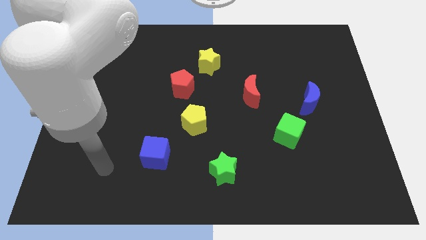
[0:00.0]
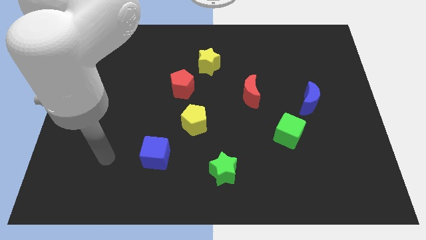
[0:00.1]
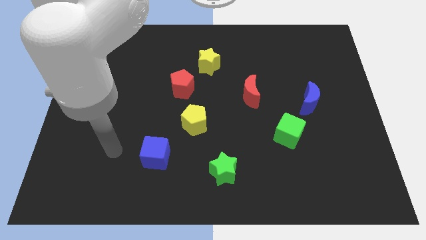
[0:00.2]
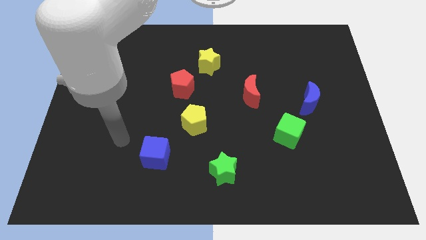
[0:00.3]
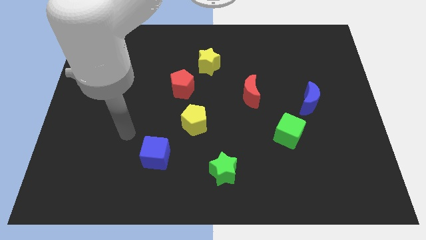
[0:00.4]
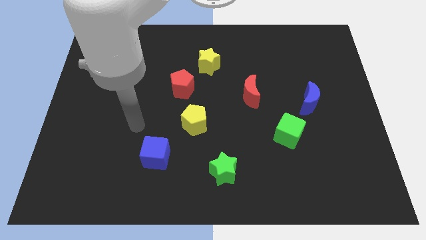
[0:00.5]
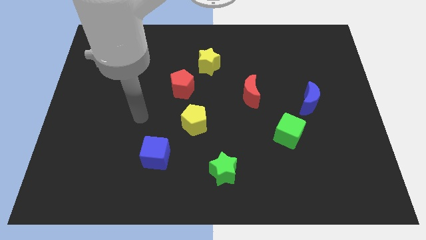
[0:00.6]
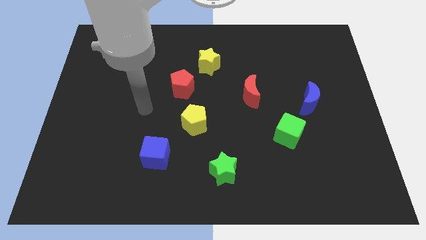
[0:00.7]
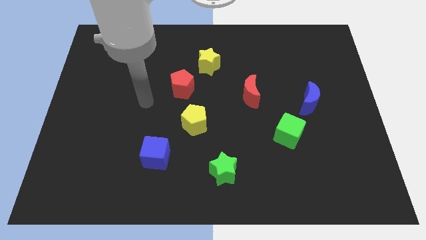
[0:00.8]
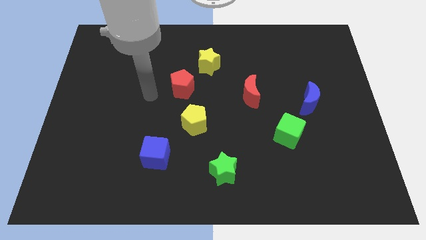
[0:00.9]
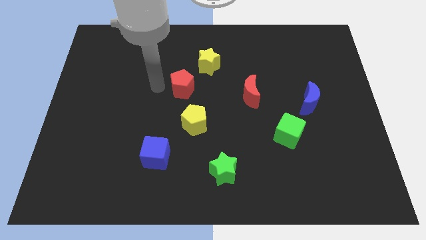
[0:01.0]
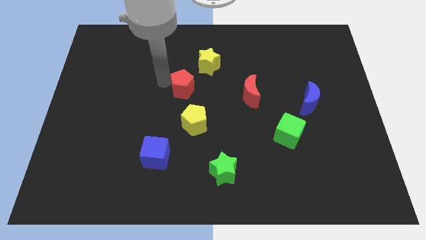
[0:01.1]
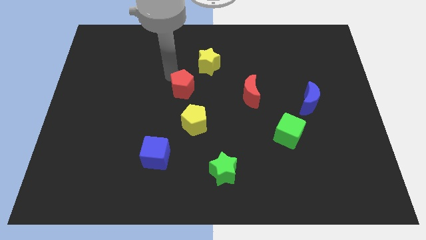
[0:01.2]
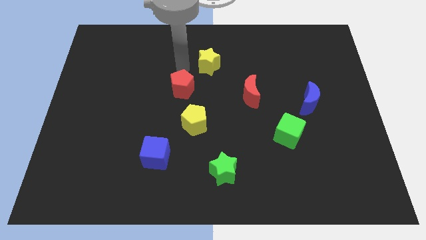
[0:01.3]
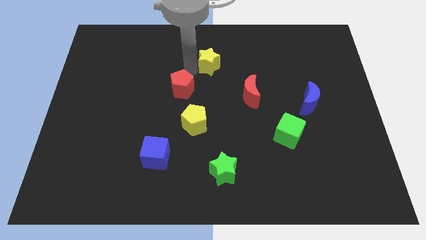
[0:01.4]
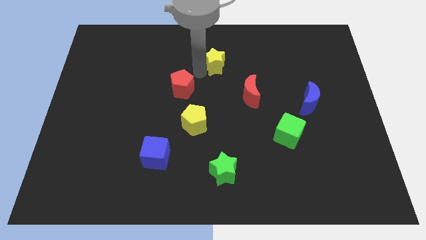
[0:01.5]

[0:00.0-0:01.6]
move the red pentagon away from the yellow star

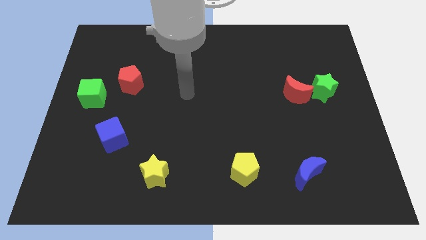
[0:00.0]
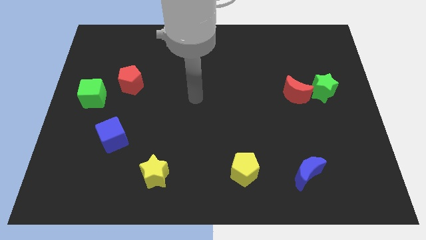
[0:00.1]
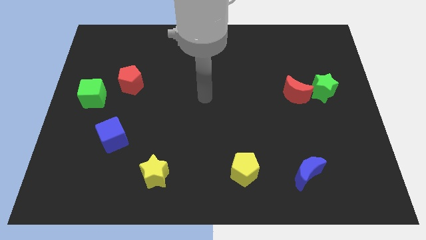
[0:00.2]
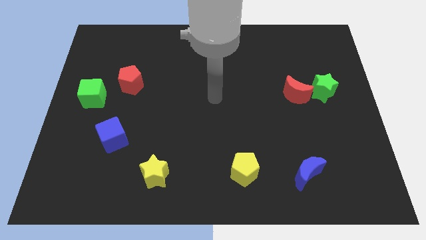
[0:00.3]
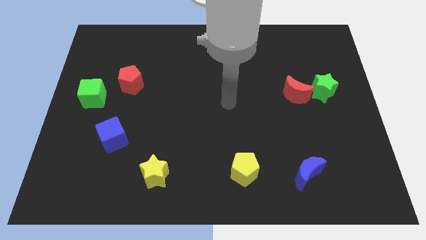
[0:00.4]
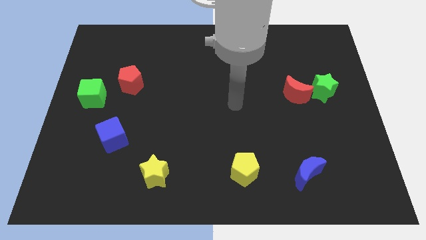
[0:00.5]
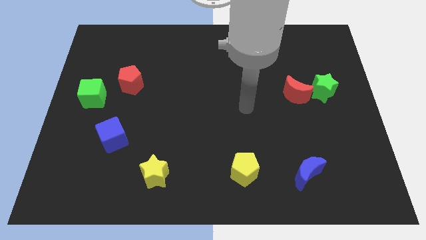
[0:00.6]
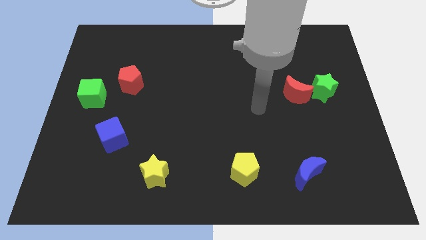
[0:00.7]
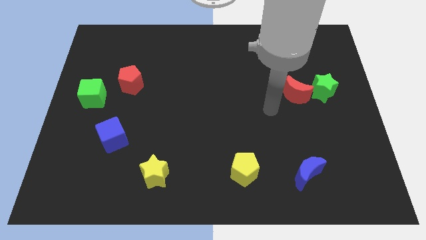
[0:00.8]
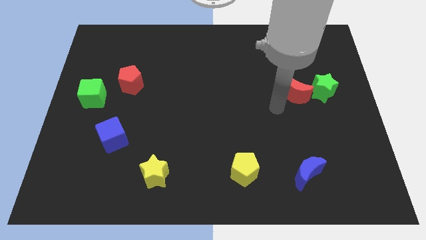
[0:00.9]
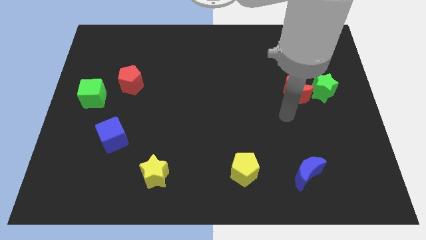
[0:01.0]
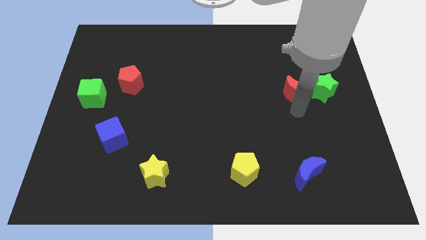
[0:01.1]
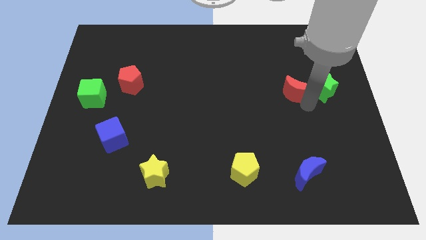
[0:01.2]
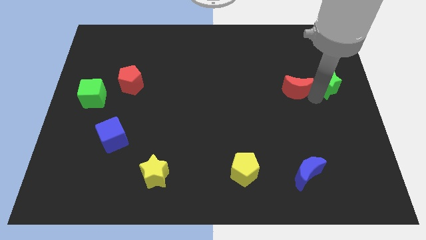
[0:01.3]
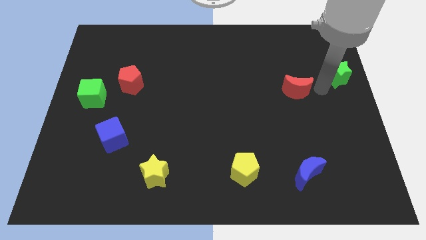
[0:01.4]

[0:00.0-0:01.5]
move the red moon away from the green star

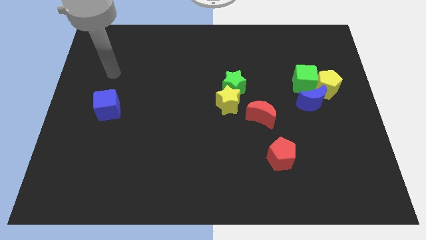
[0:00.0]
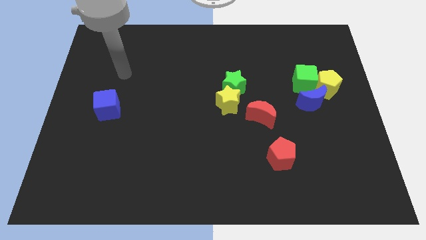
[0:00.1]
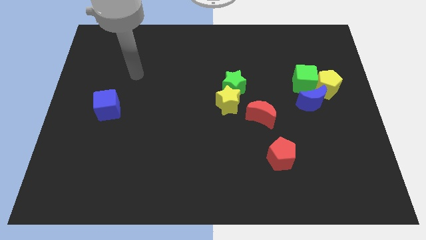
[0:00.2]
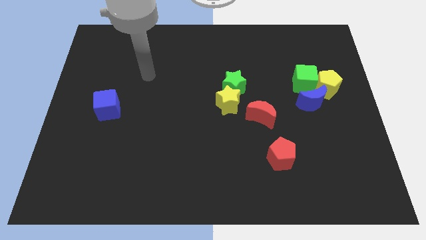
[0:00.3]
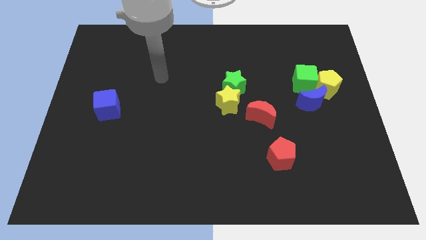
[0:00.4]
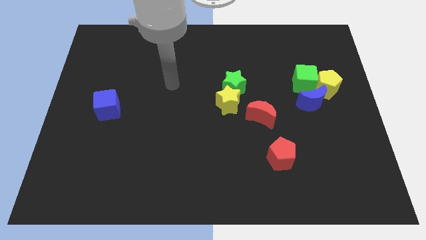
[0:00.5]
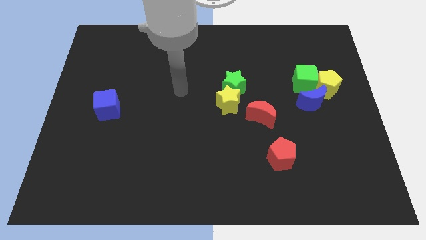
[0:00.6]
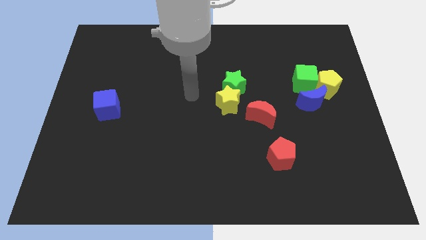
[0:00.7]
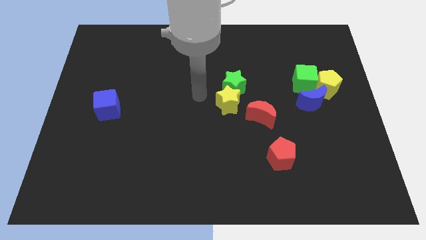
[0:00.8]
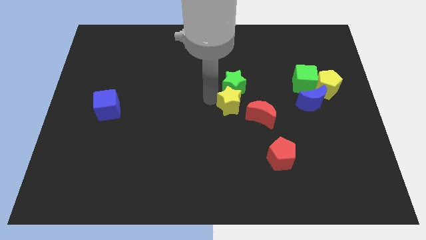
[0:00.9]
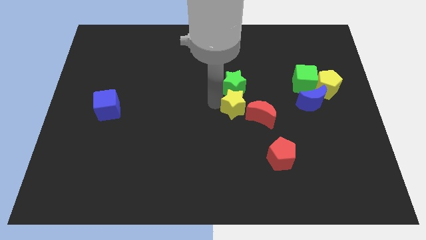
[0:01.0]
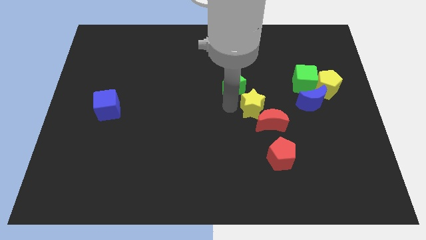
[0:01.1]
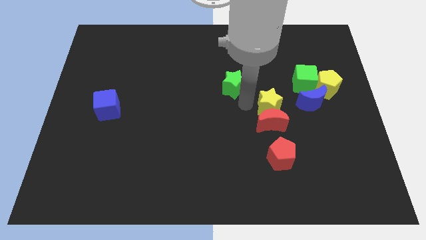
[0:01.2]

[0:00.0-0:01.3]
move the green star away from the yellow star

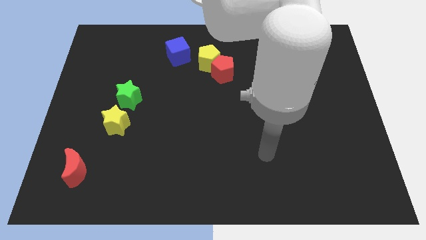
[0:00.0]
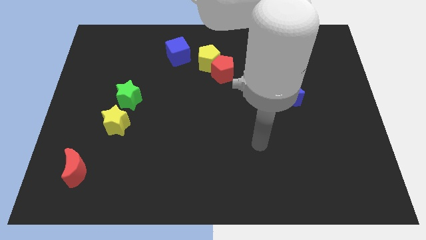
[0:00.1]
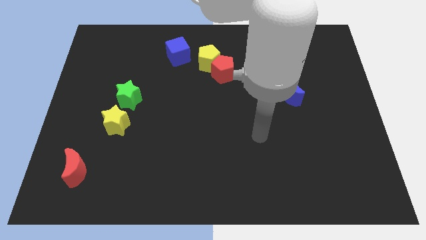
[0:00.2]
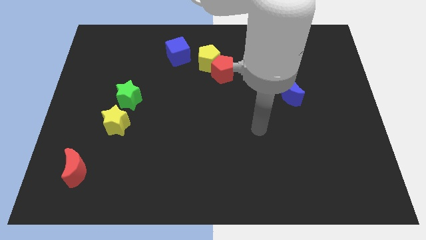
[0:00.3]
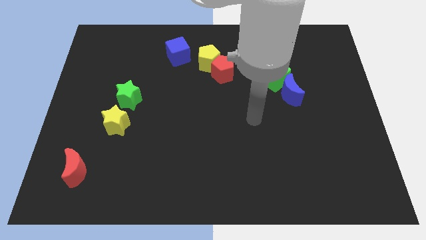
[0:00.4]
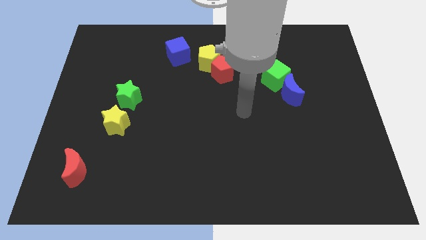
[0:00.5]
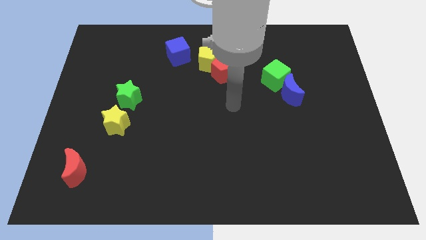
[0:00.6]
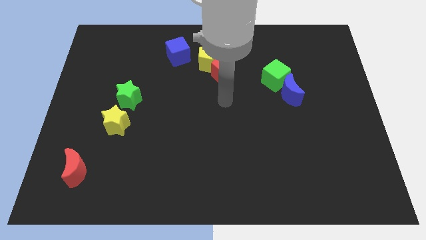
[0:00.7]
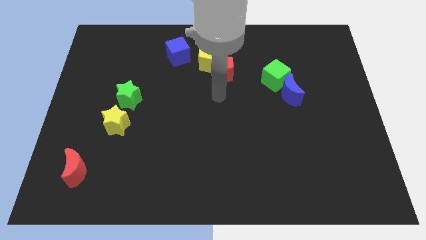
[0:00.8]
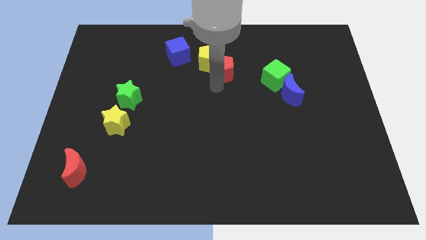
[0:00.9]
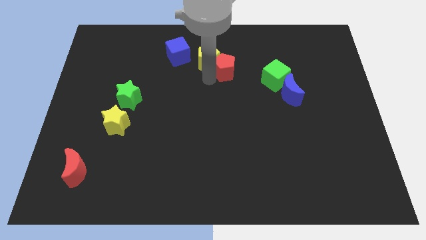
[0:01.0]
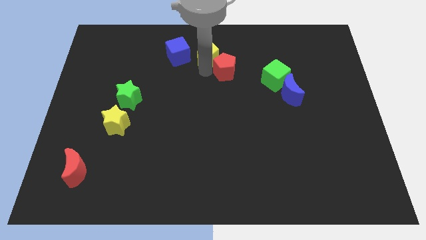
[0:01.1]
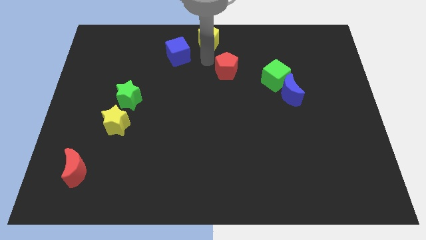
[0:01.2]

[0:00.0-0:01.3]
move the red pentagon away from the yellow pentagon

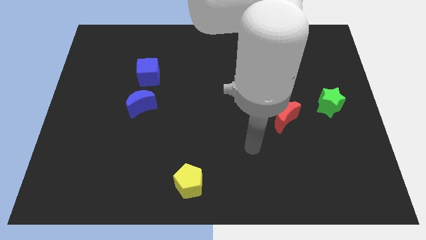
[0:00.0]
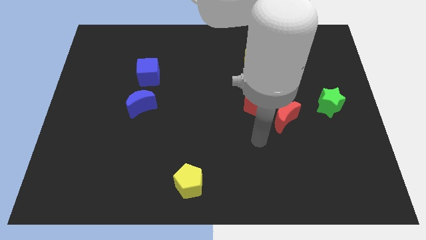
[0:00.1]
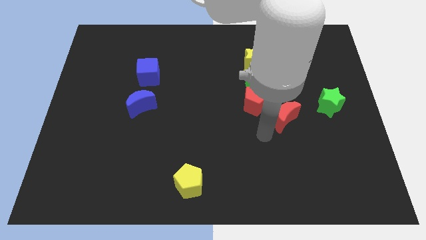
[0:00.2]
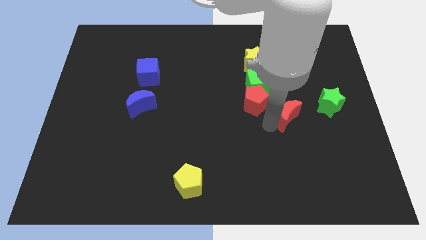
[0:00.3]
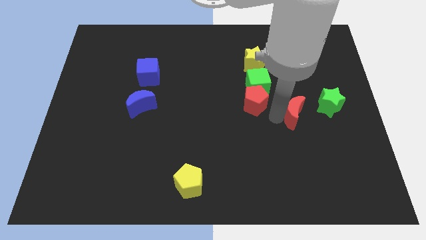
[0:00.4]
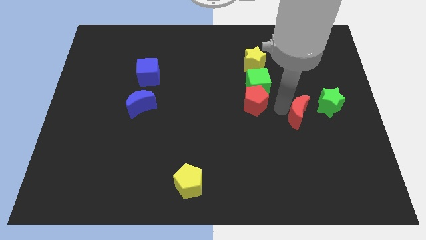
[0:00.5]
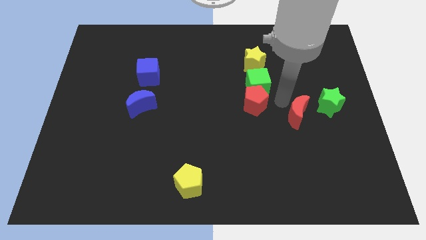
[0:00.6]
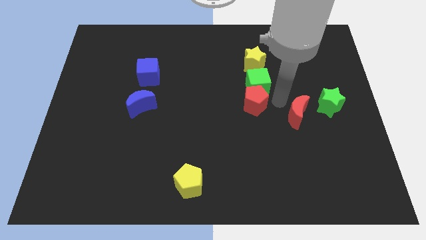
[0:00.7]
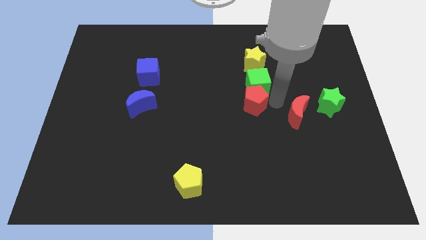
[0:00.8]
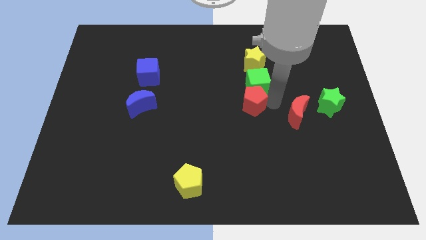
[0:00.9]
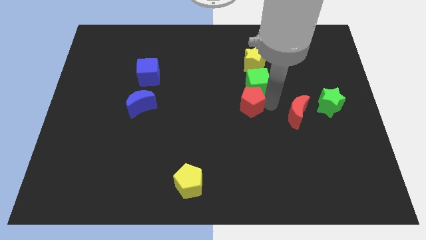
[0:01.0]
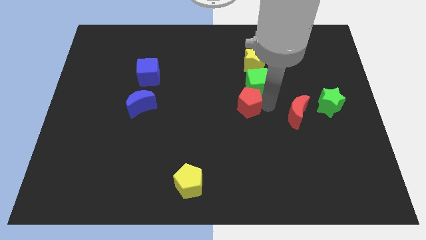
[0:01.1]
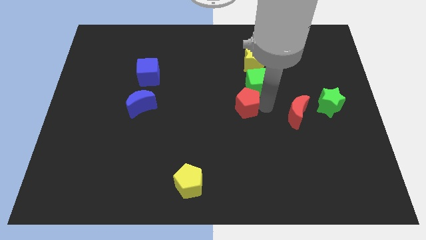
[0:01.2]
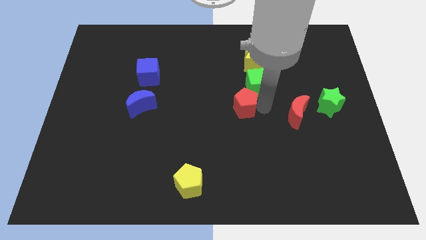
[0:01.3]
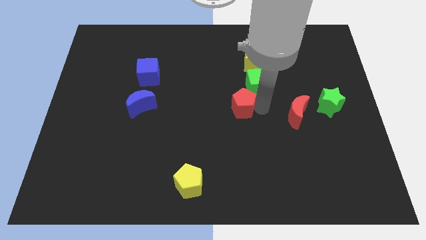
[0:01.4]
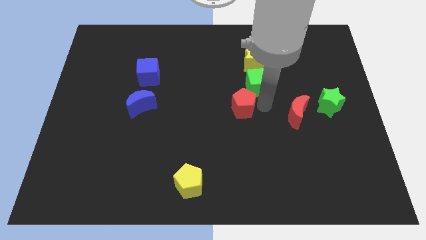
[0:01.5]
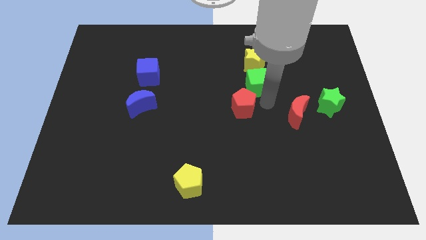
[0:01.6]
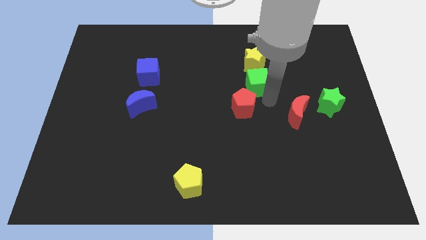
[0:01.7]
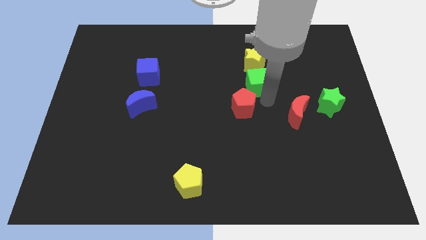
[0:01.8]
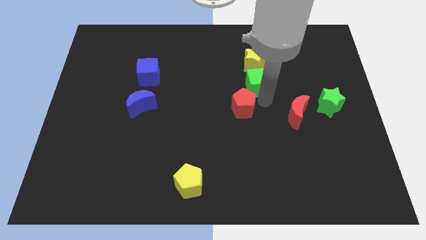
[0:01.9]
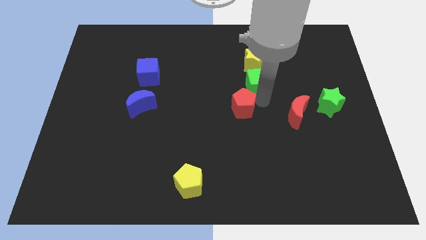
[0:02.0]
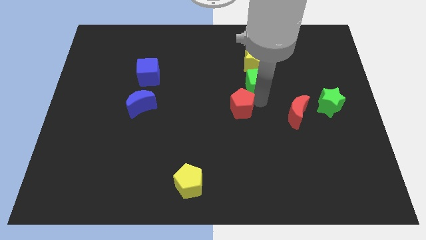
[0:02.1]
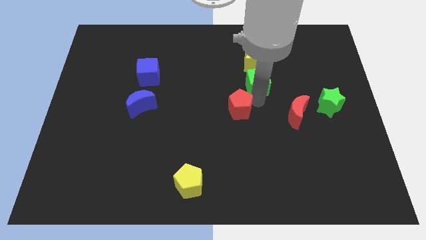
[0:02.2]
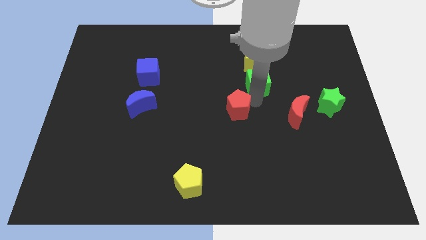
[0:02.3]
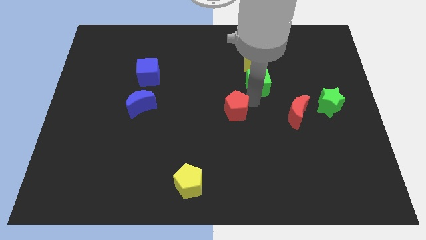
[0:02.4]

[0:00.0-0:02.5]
pull the red pentagon apart from the green cube and red moon

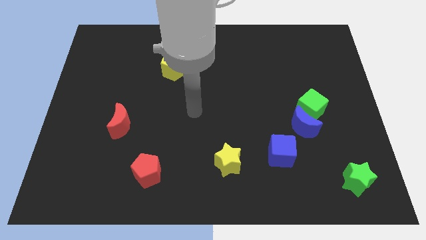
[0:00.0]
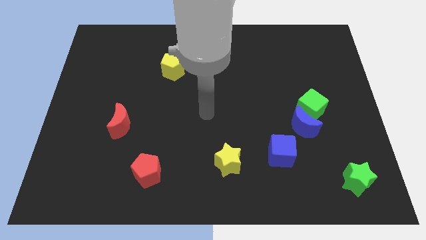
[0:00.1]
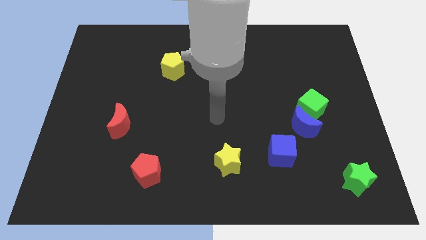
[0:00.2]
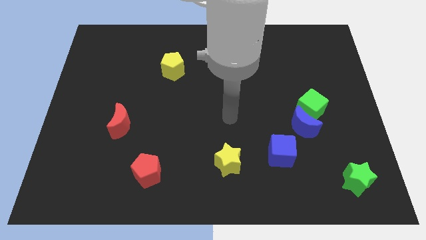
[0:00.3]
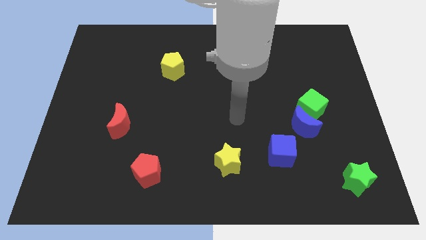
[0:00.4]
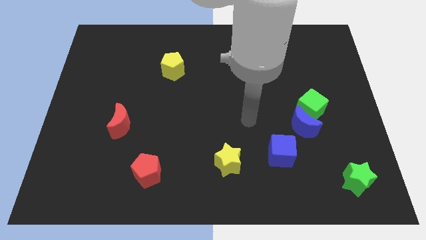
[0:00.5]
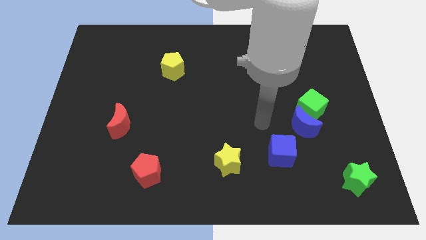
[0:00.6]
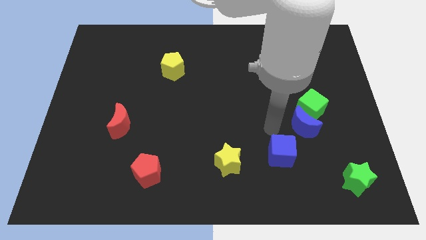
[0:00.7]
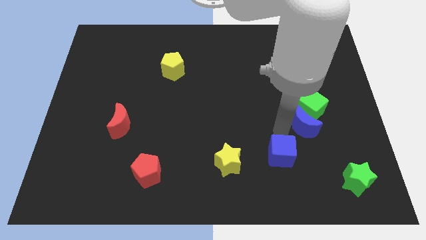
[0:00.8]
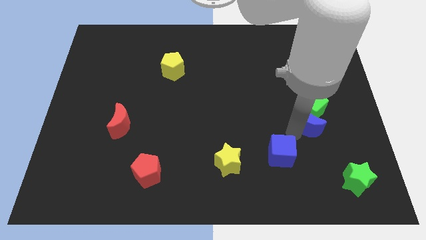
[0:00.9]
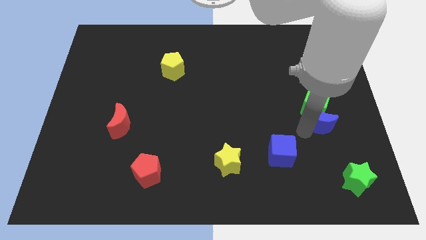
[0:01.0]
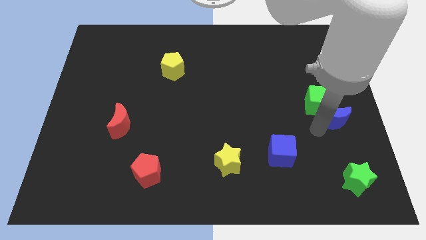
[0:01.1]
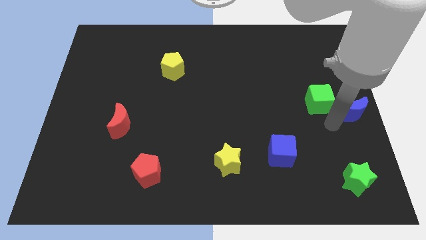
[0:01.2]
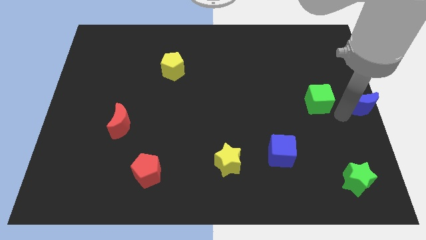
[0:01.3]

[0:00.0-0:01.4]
separate the green cube from the blue moon
